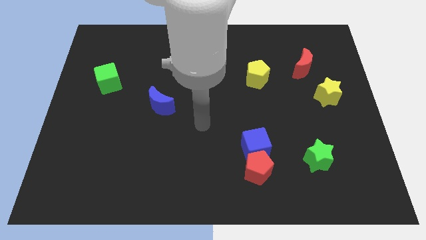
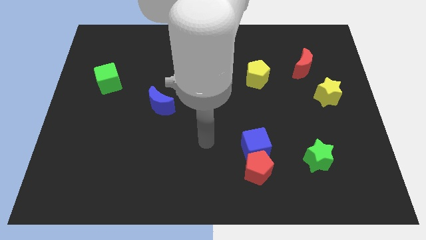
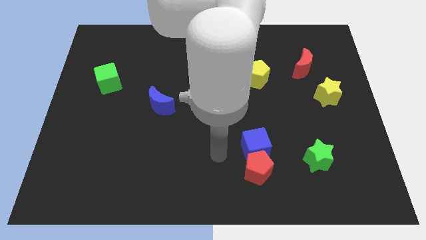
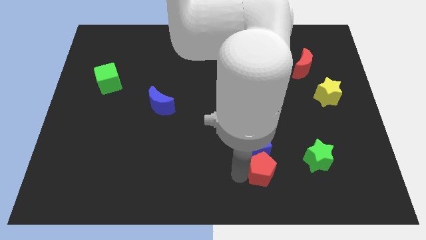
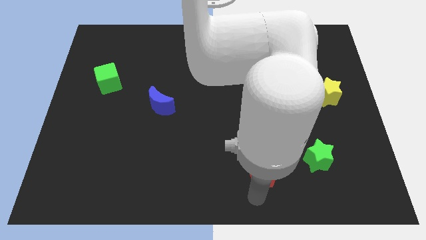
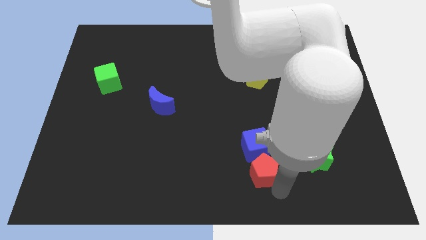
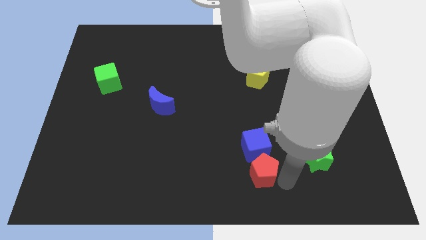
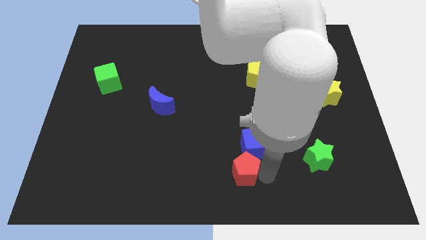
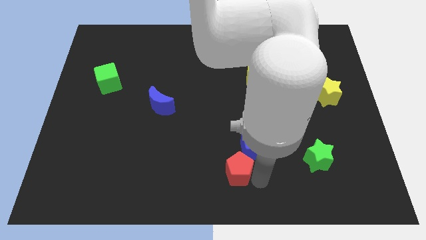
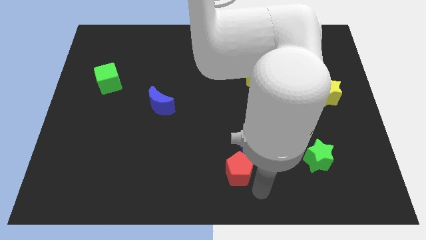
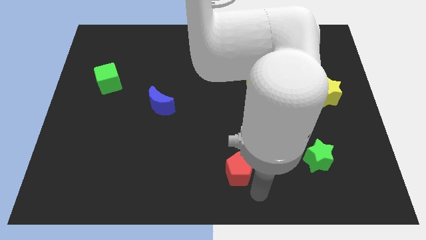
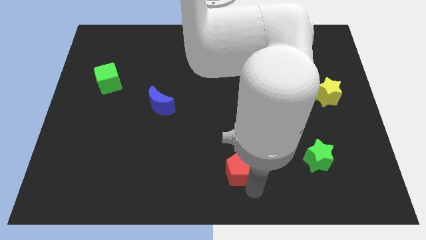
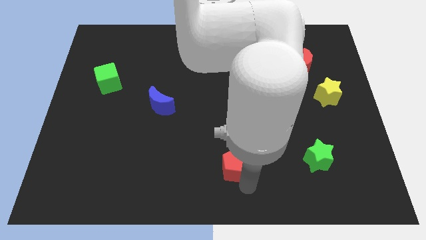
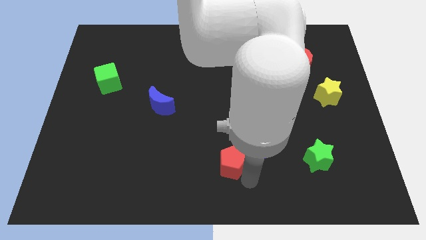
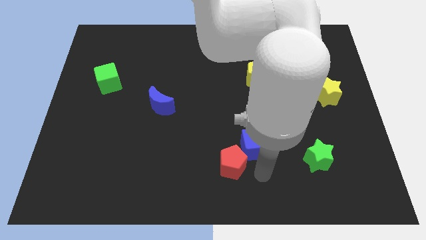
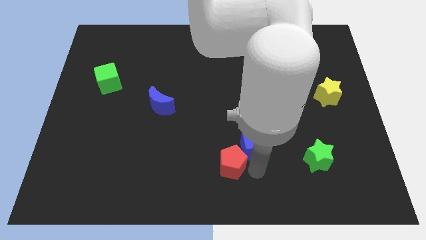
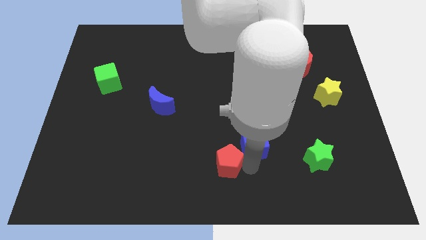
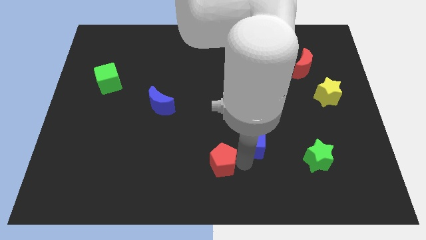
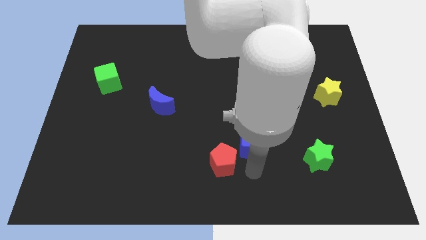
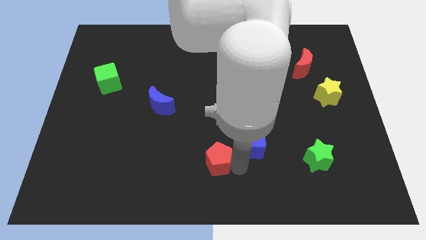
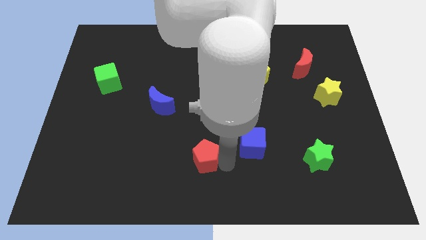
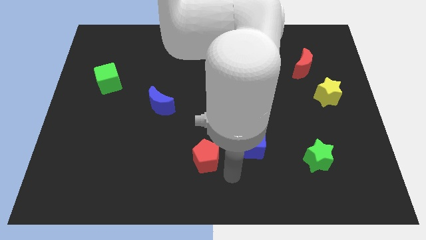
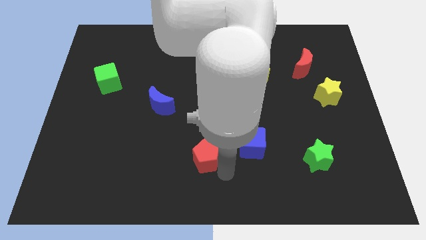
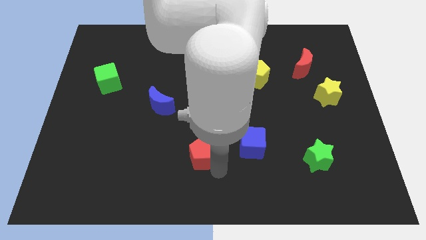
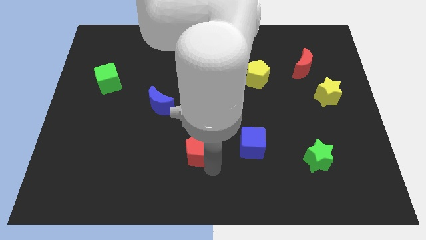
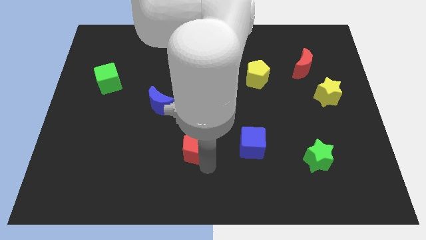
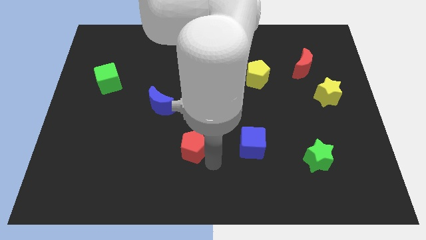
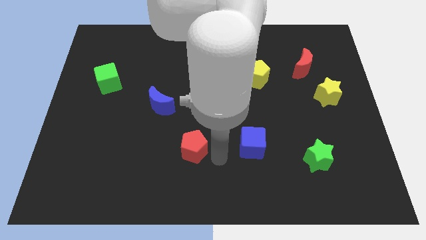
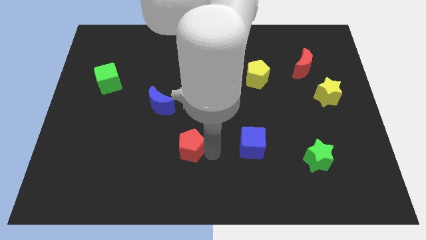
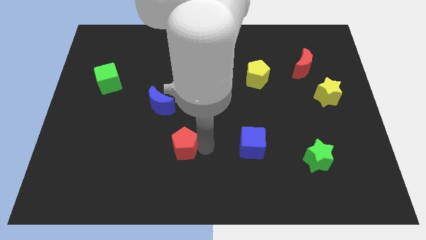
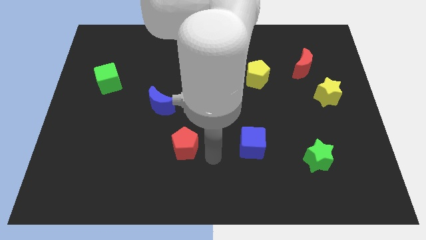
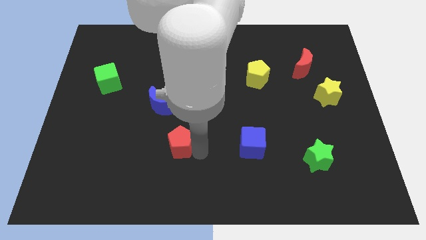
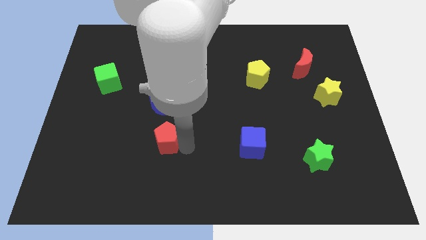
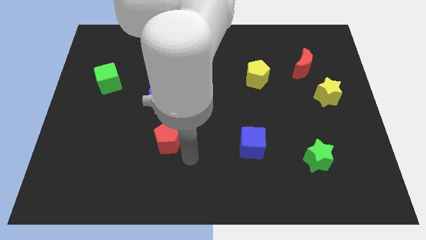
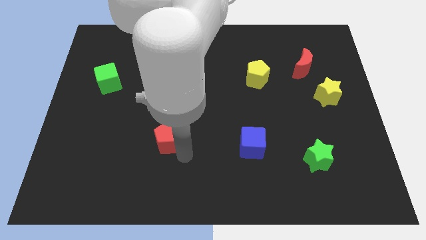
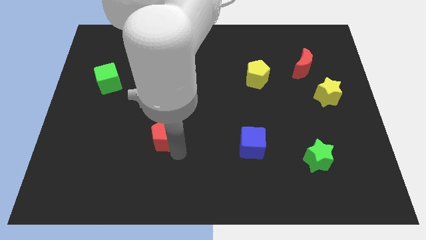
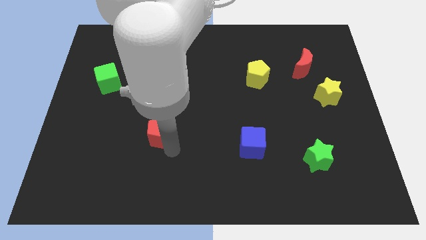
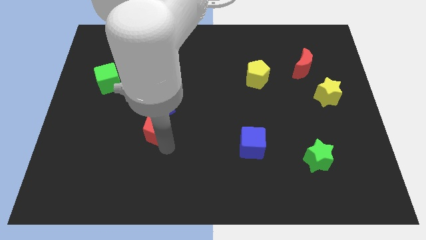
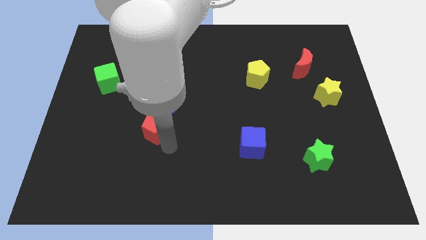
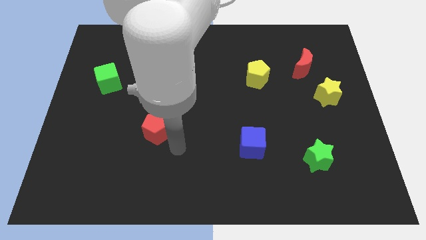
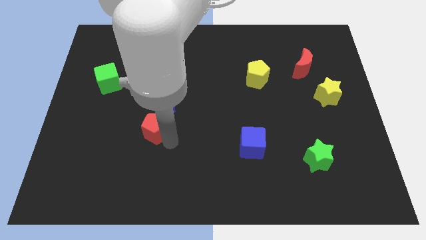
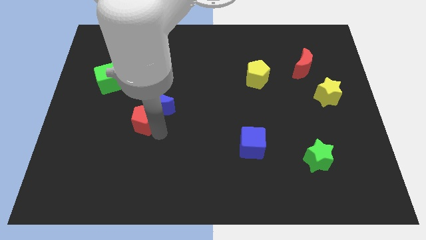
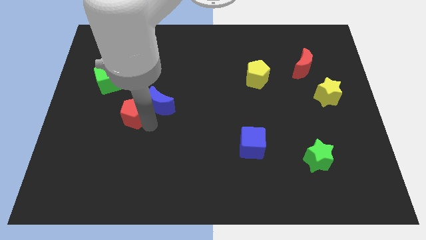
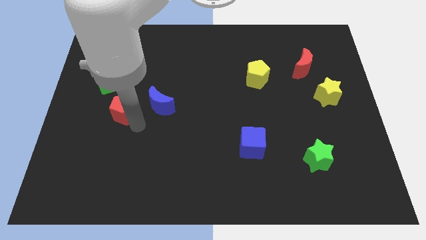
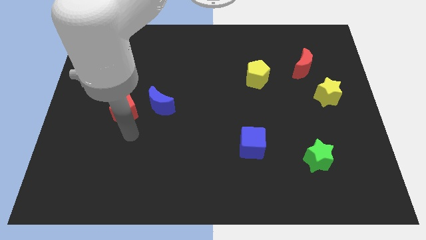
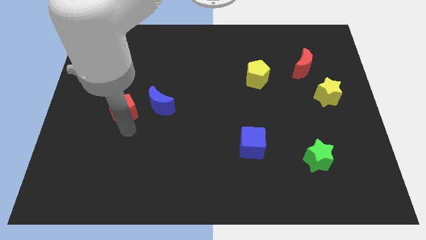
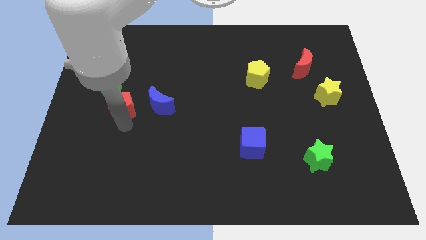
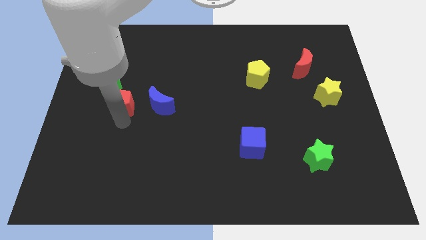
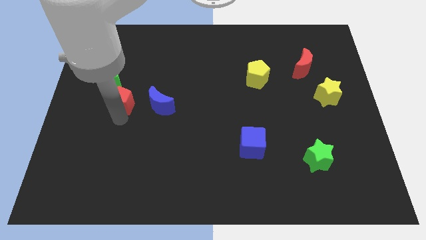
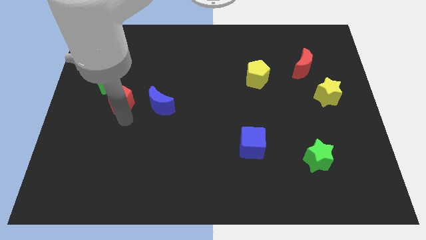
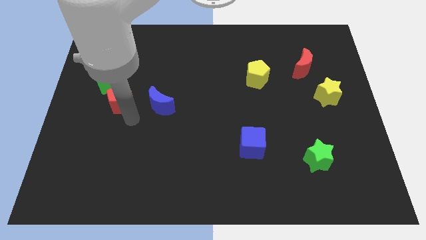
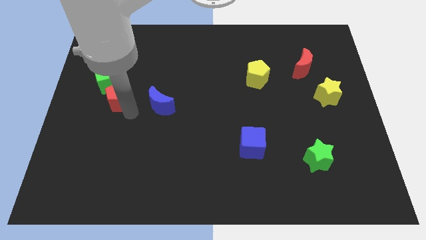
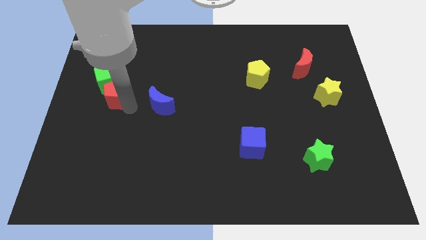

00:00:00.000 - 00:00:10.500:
slide the red pentagon towards the green cube

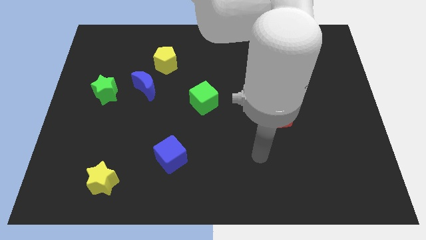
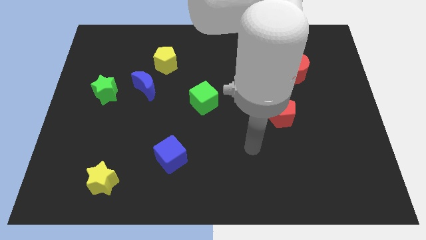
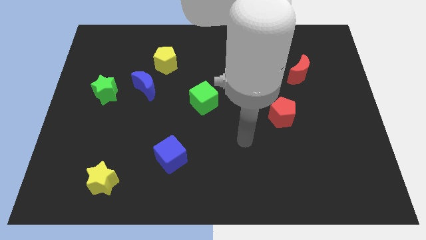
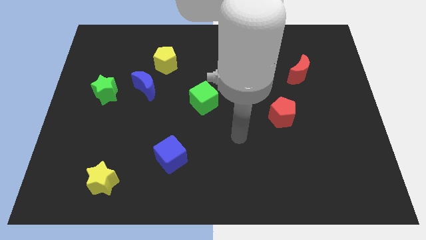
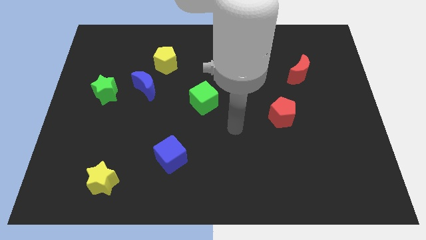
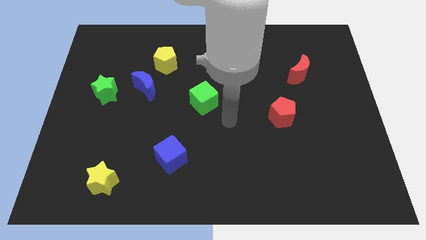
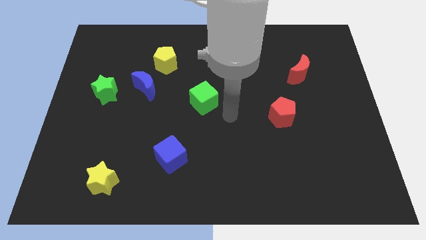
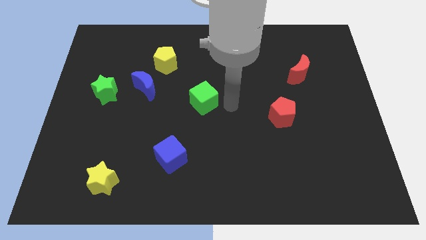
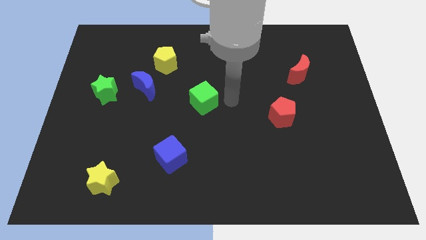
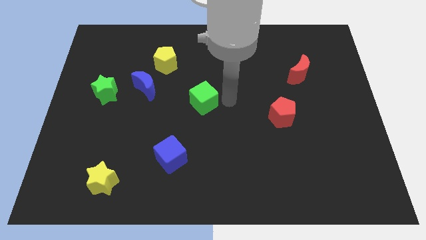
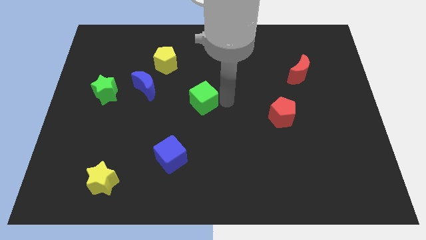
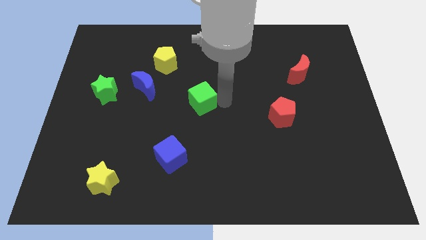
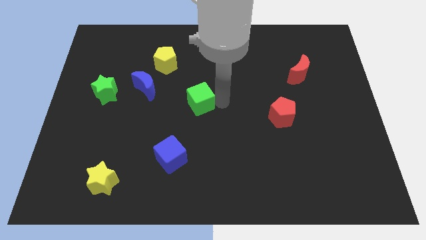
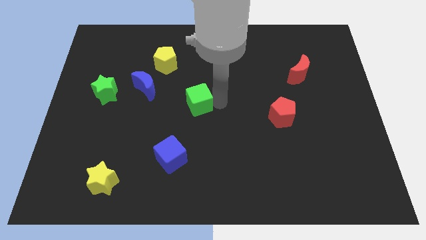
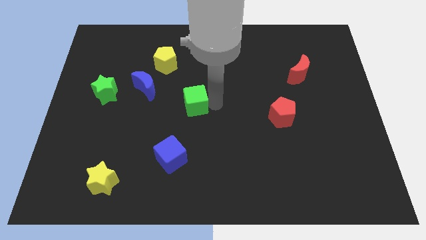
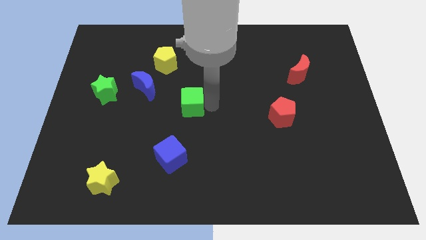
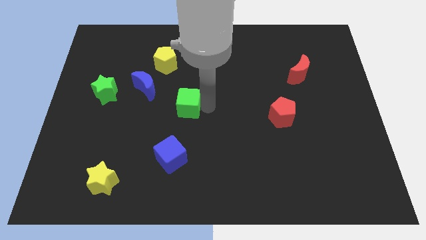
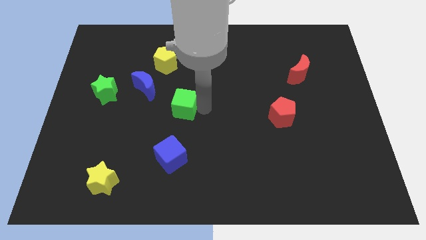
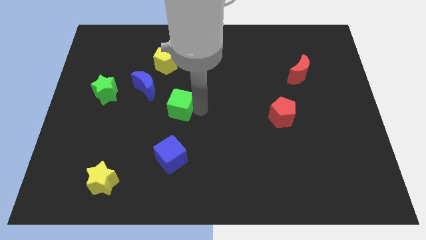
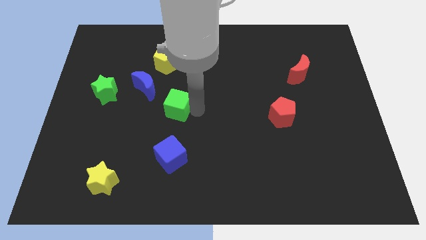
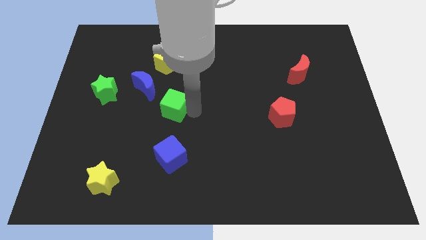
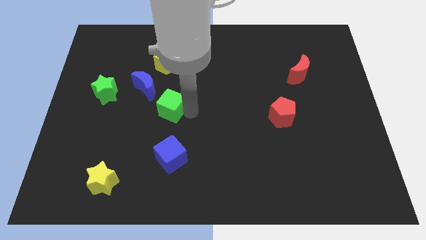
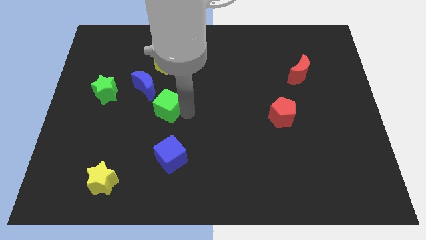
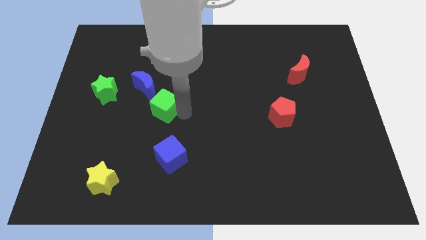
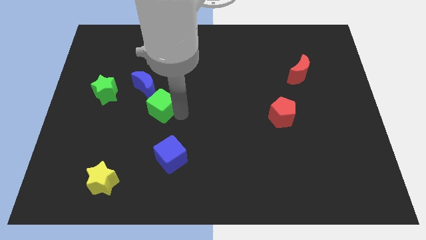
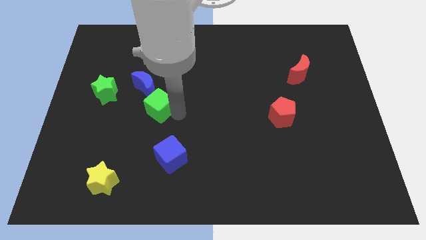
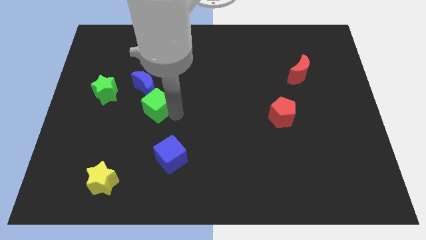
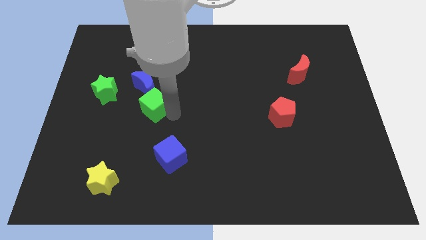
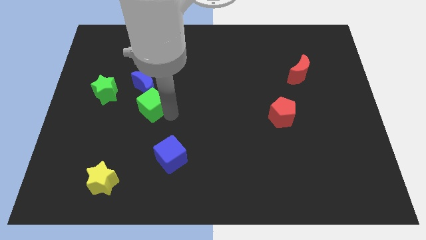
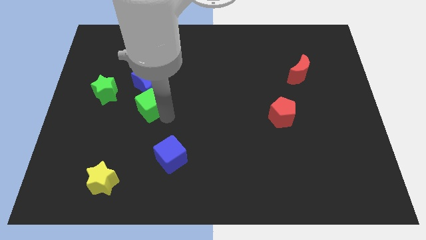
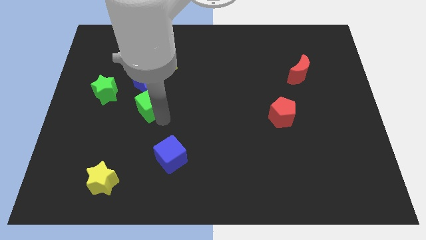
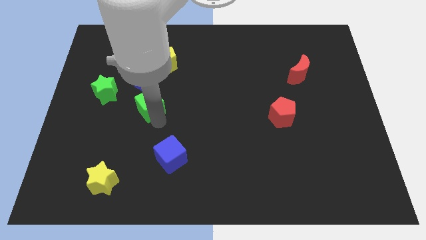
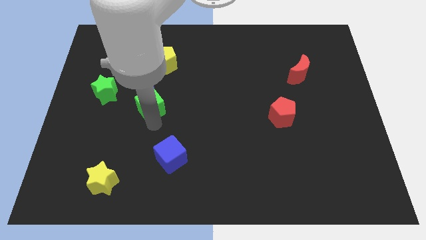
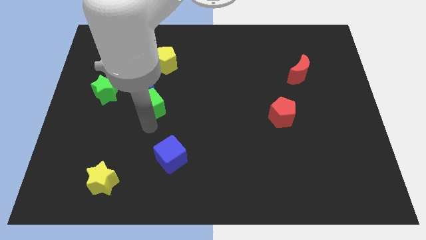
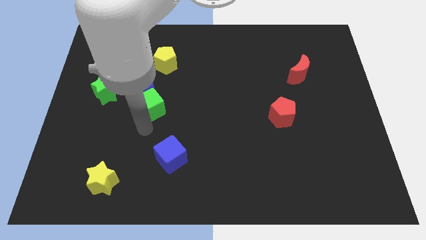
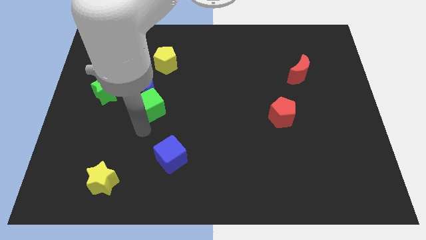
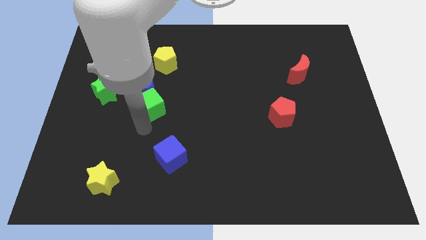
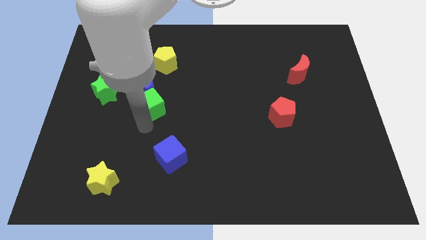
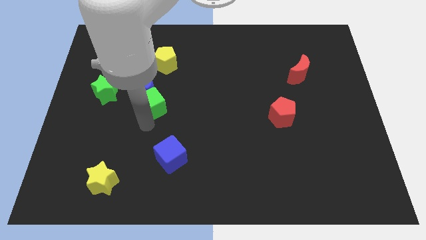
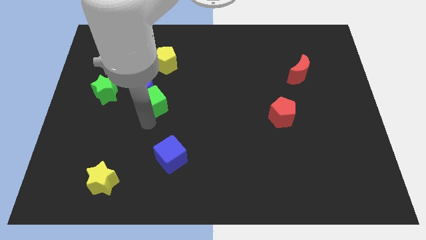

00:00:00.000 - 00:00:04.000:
move the green cube next to the blue moon
